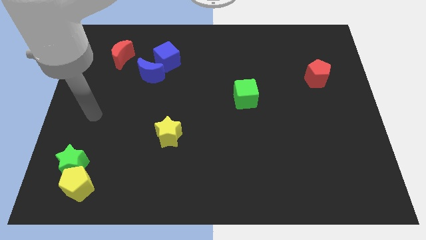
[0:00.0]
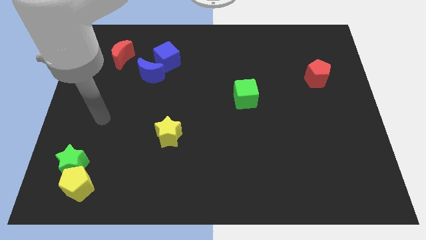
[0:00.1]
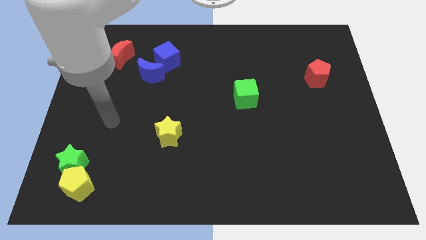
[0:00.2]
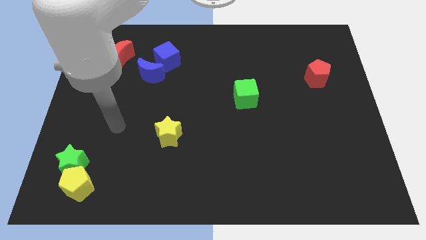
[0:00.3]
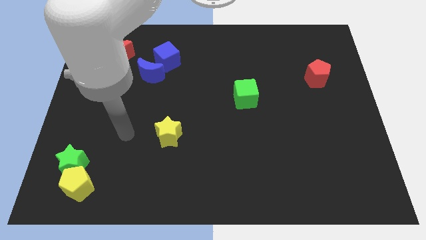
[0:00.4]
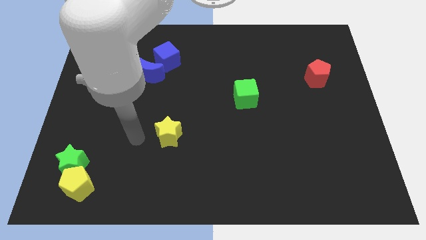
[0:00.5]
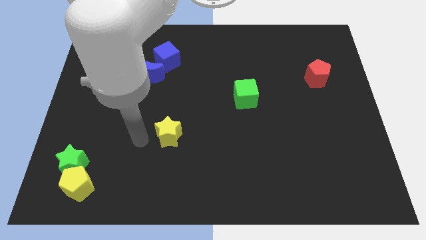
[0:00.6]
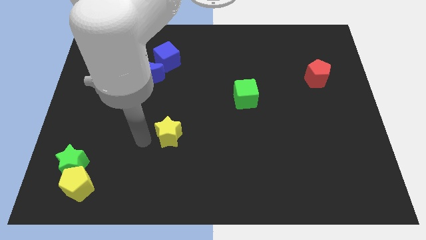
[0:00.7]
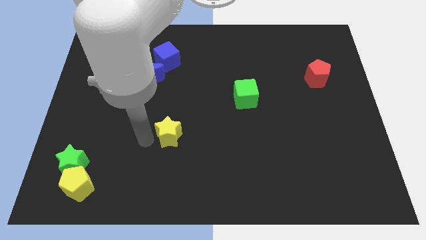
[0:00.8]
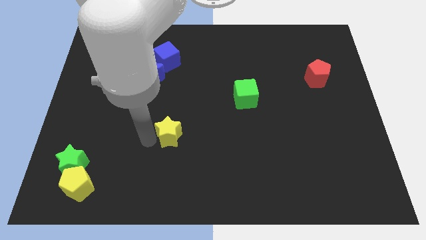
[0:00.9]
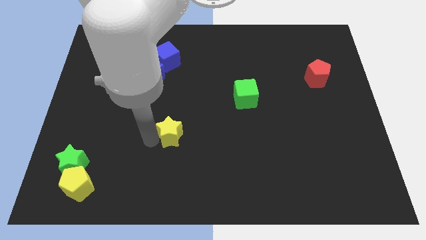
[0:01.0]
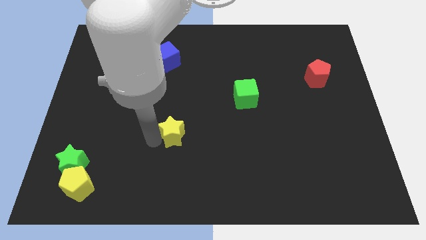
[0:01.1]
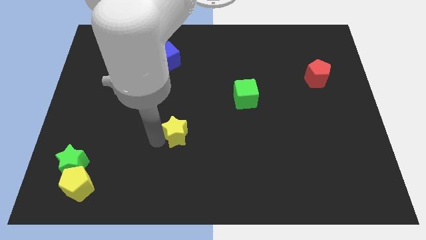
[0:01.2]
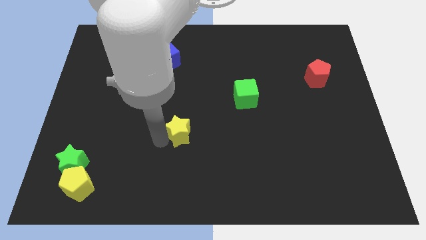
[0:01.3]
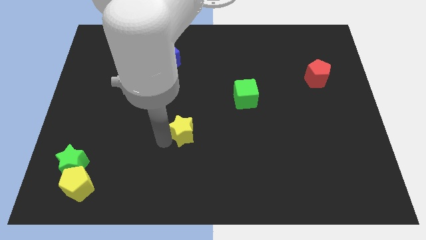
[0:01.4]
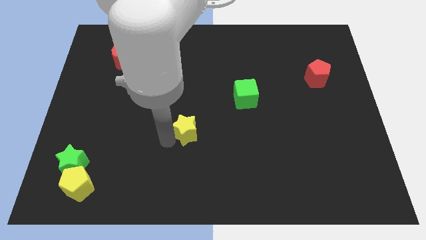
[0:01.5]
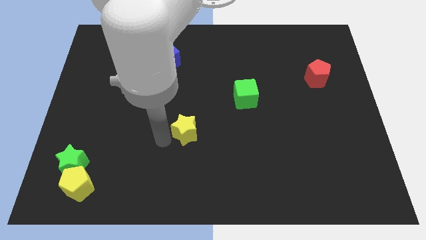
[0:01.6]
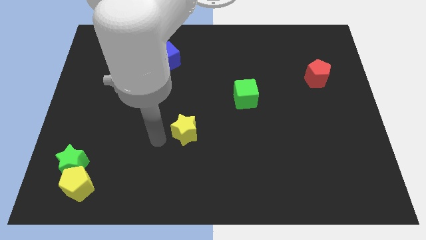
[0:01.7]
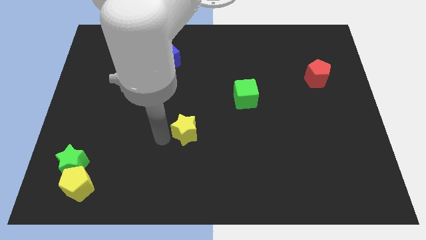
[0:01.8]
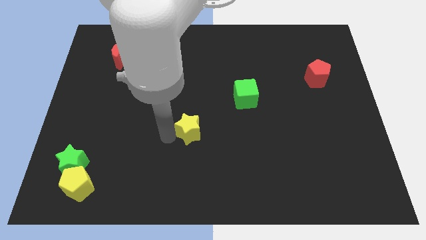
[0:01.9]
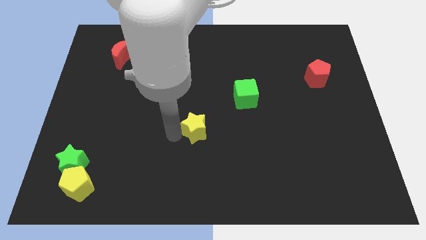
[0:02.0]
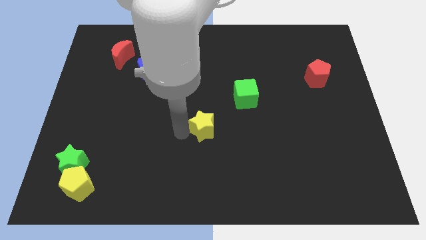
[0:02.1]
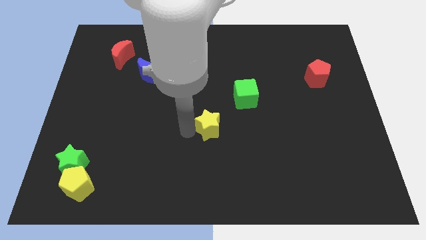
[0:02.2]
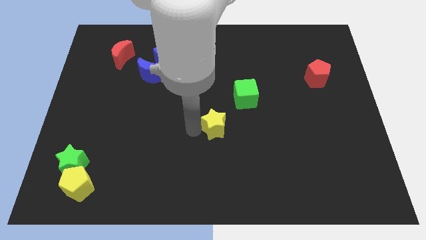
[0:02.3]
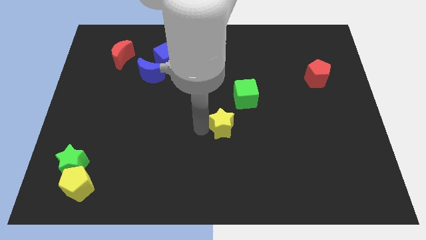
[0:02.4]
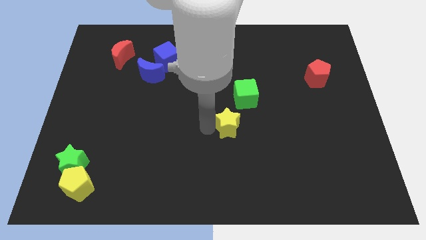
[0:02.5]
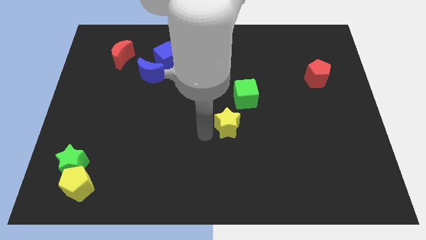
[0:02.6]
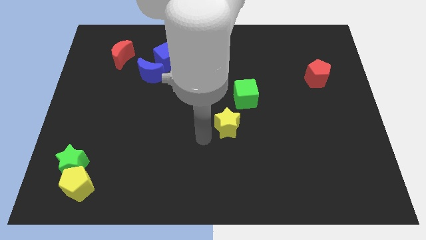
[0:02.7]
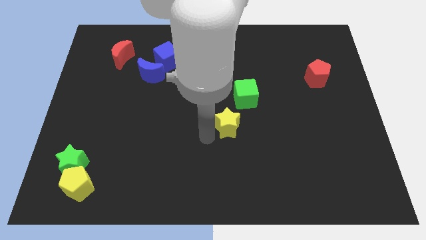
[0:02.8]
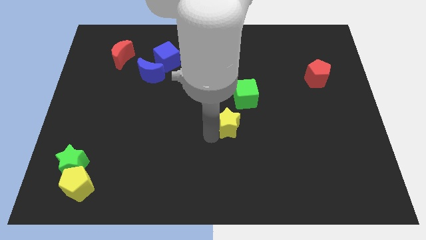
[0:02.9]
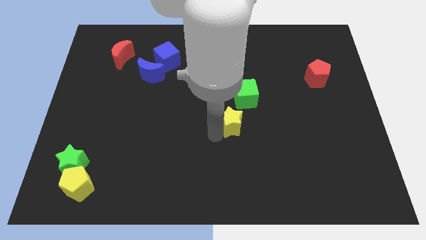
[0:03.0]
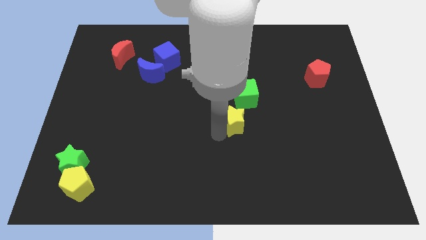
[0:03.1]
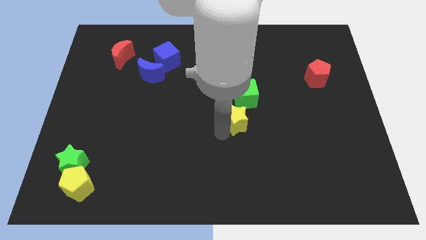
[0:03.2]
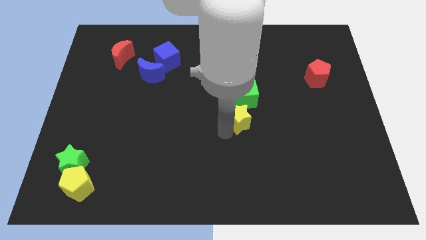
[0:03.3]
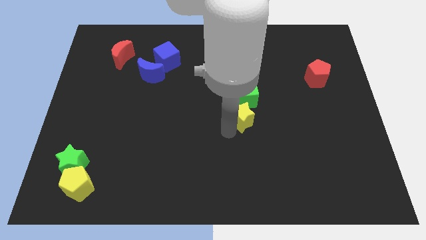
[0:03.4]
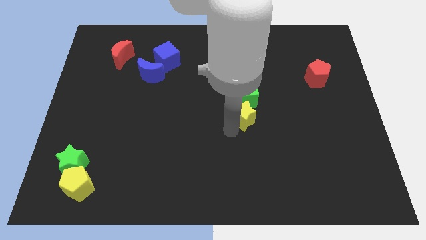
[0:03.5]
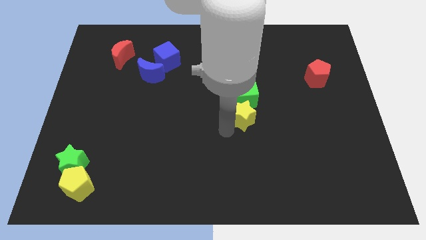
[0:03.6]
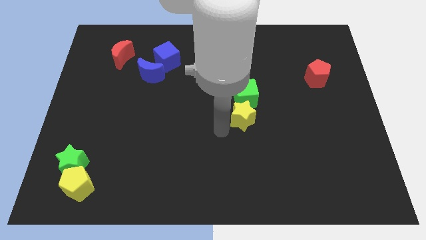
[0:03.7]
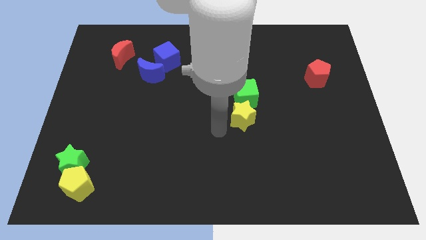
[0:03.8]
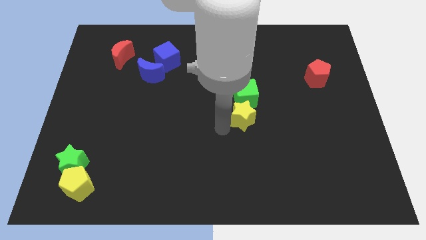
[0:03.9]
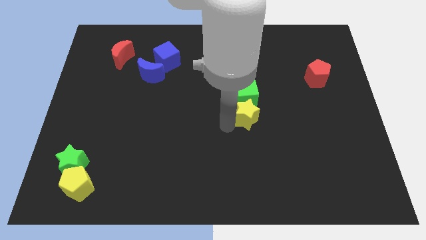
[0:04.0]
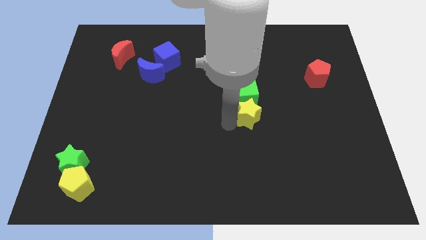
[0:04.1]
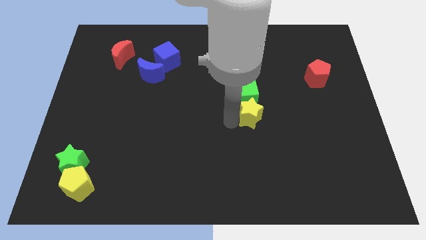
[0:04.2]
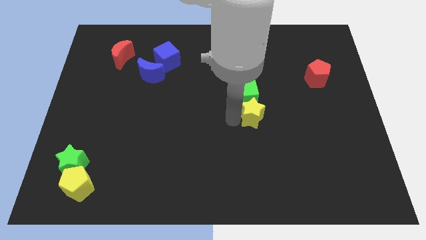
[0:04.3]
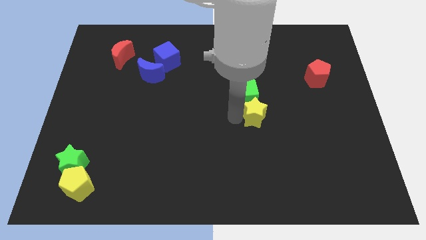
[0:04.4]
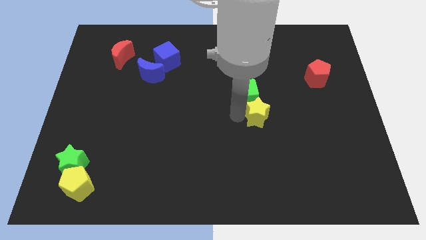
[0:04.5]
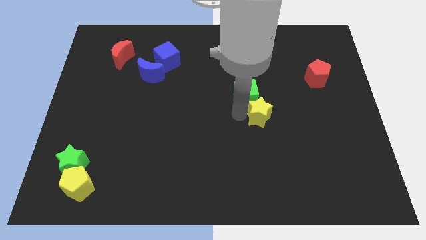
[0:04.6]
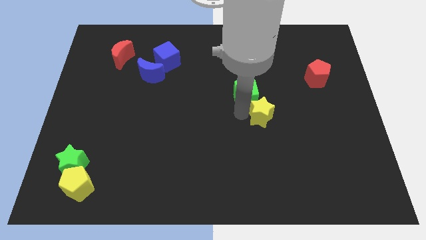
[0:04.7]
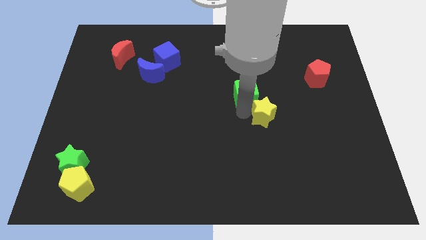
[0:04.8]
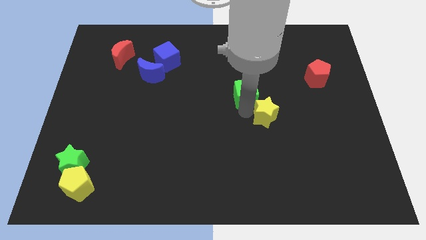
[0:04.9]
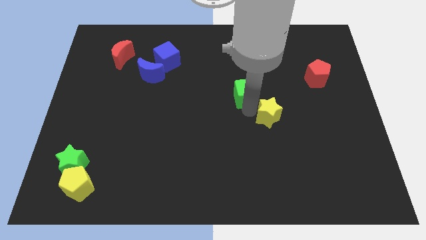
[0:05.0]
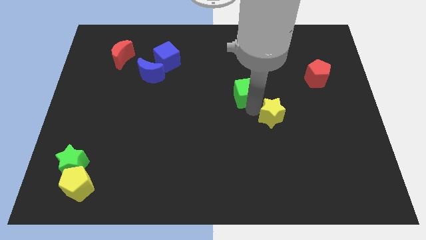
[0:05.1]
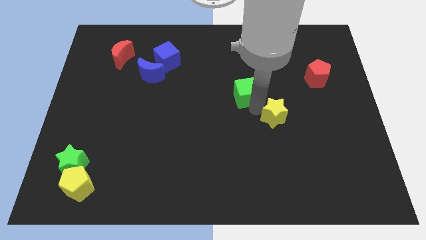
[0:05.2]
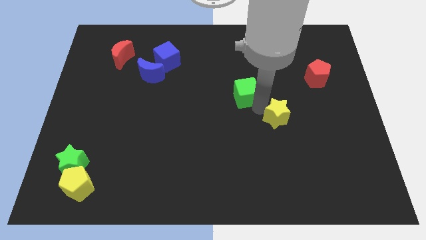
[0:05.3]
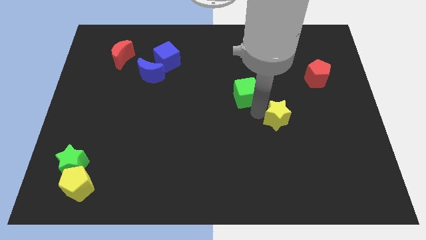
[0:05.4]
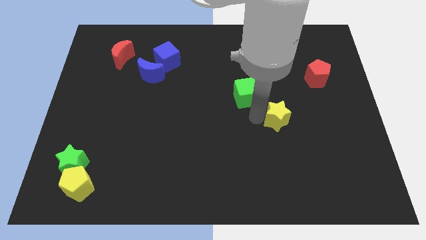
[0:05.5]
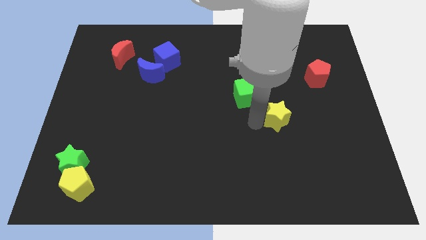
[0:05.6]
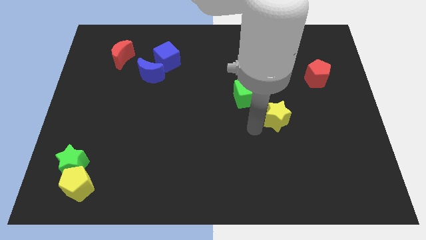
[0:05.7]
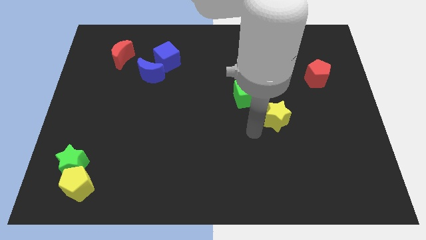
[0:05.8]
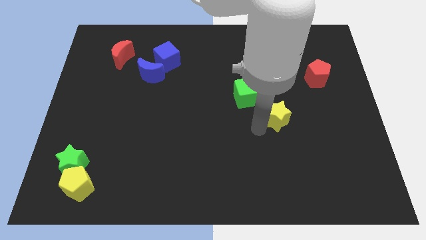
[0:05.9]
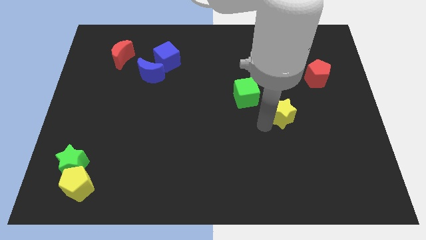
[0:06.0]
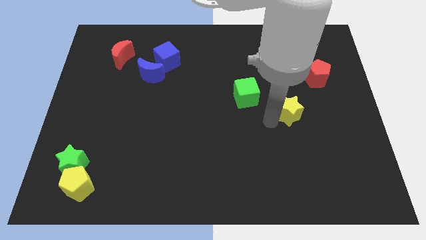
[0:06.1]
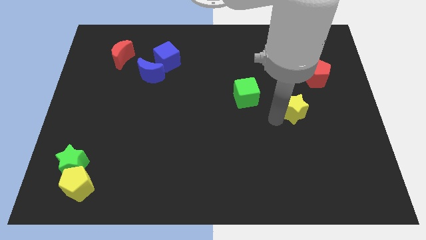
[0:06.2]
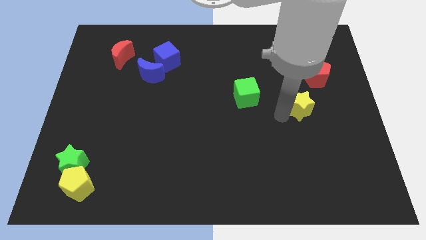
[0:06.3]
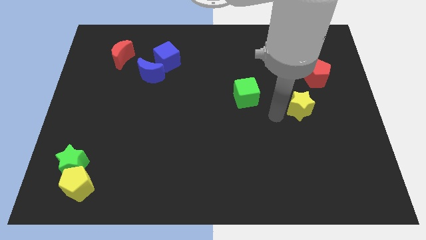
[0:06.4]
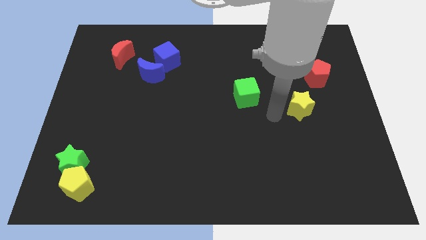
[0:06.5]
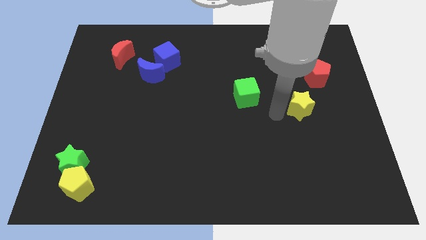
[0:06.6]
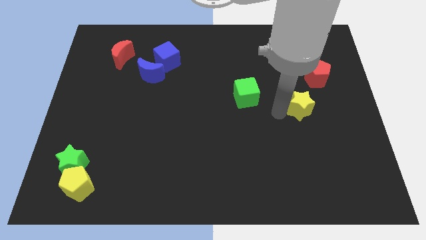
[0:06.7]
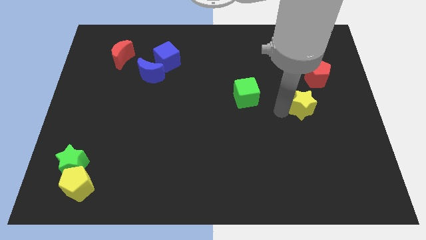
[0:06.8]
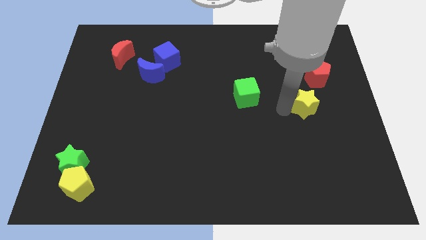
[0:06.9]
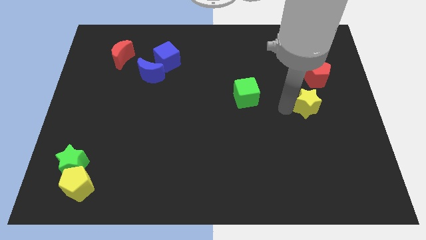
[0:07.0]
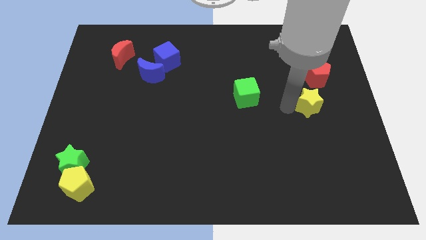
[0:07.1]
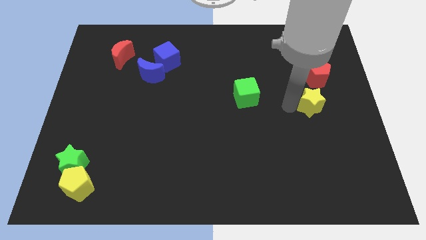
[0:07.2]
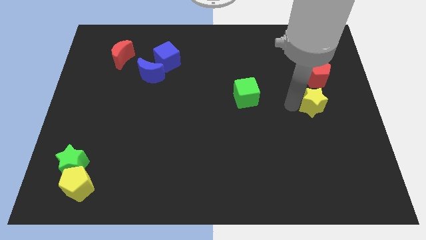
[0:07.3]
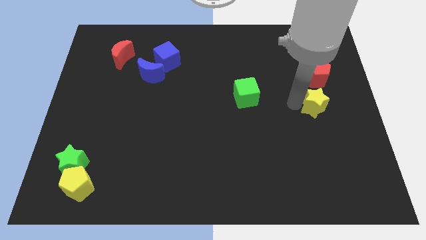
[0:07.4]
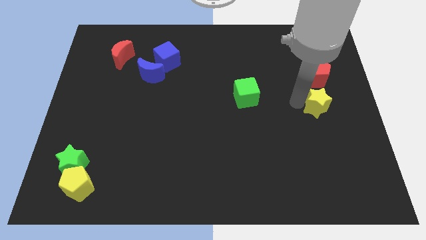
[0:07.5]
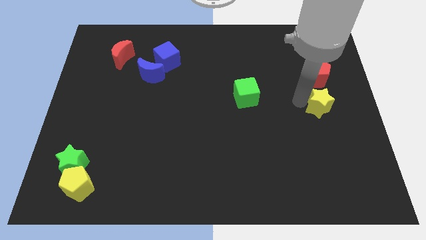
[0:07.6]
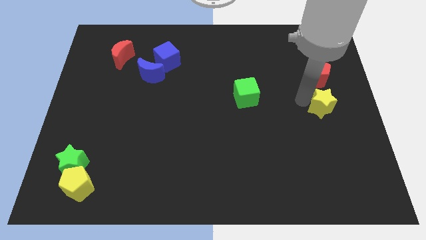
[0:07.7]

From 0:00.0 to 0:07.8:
slide the yellow star to the center right
